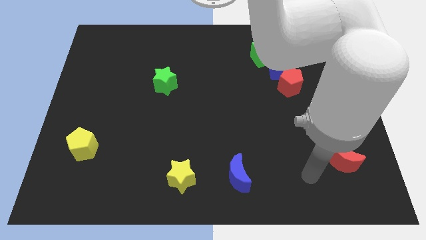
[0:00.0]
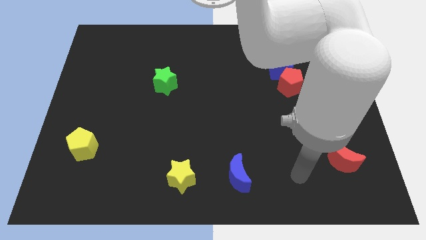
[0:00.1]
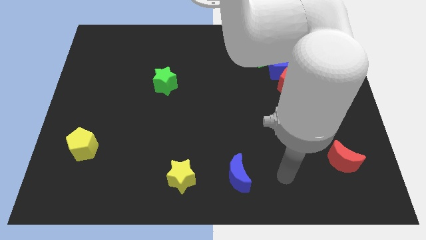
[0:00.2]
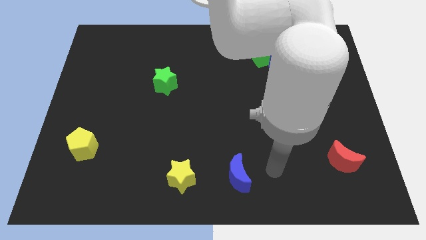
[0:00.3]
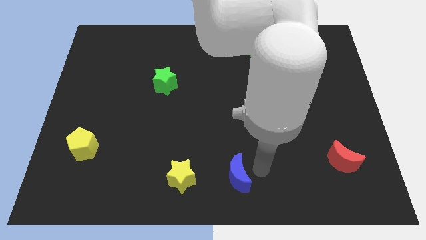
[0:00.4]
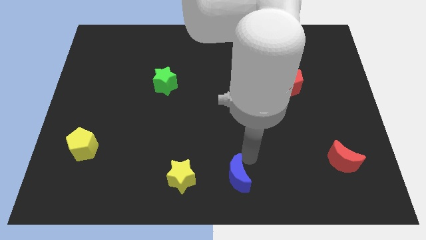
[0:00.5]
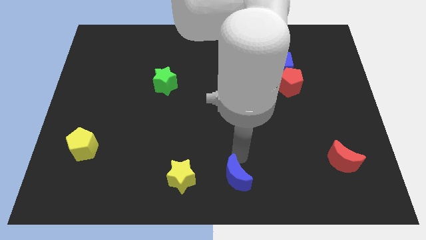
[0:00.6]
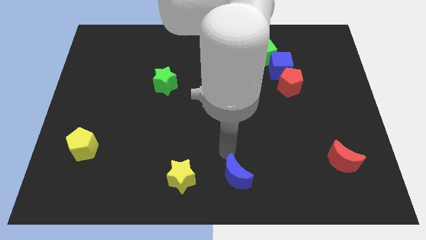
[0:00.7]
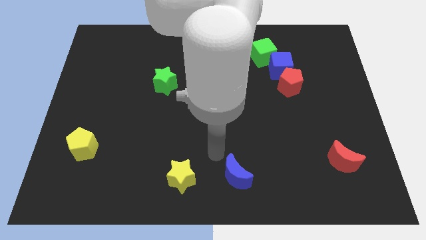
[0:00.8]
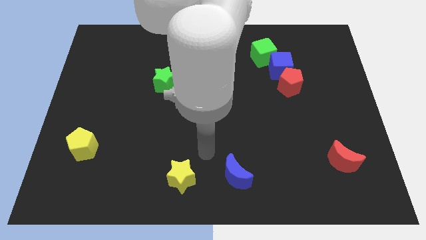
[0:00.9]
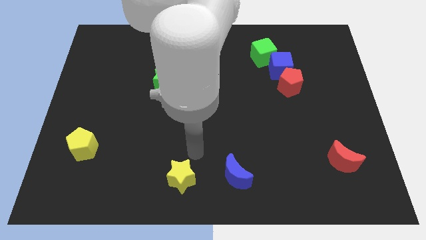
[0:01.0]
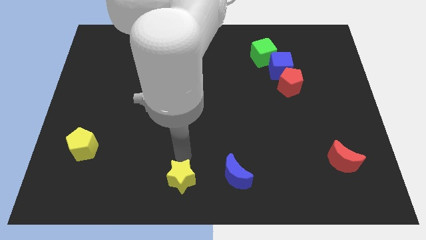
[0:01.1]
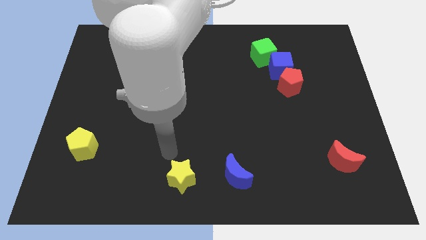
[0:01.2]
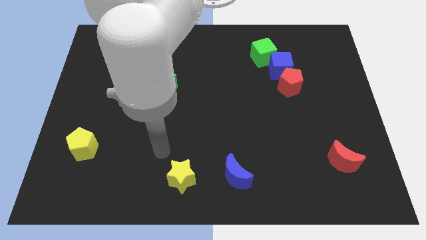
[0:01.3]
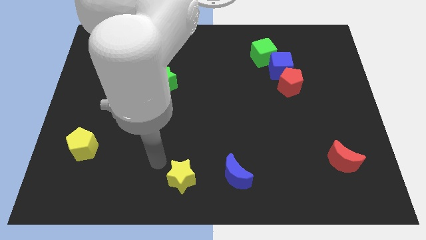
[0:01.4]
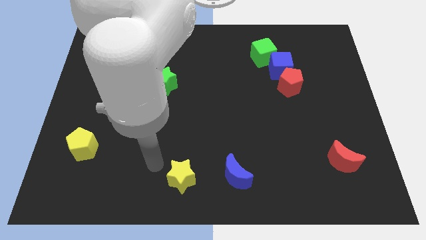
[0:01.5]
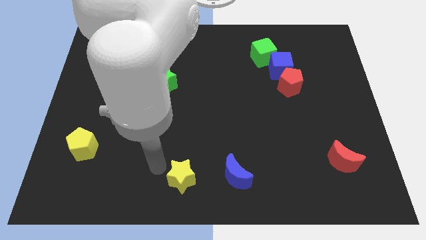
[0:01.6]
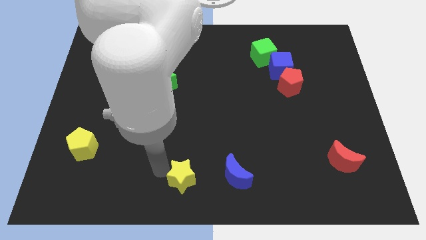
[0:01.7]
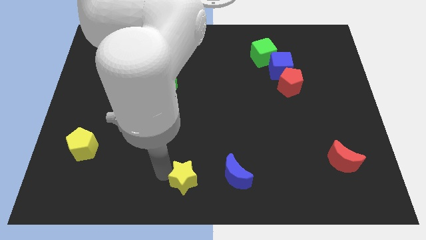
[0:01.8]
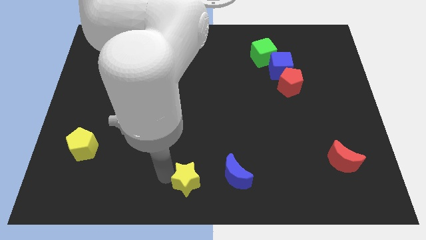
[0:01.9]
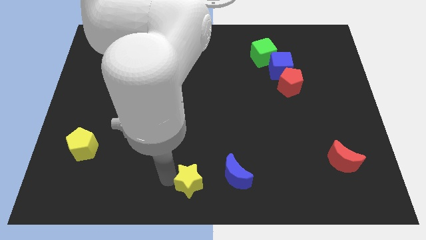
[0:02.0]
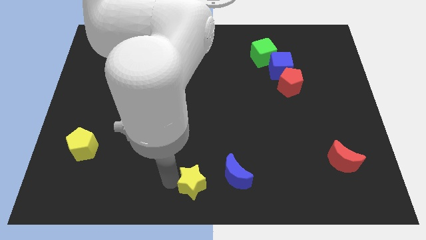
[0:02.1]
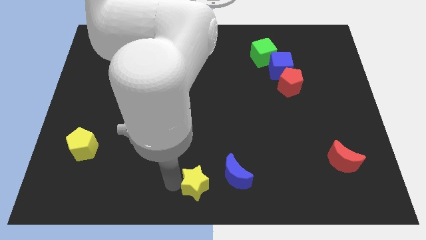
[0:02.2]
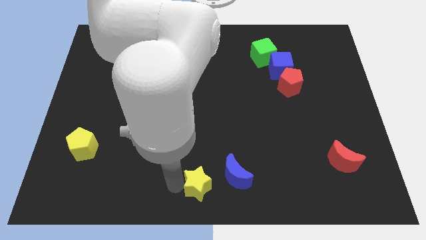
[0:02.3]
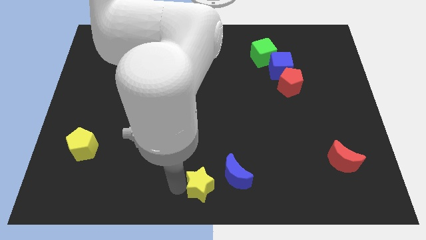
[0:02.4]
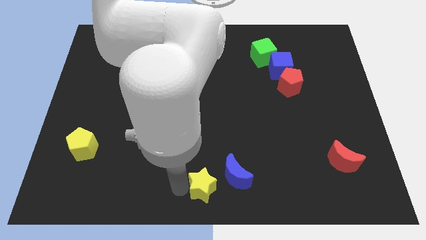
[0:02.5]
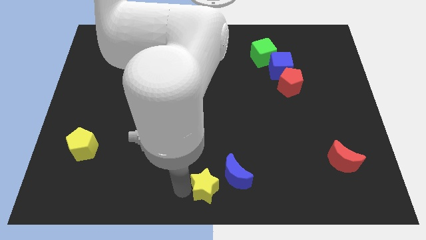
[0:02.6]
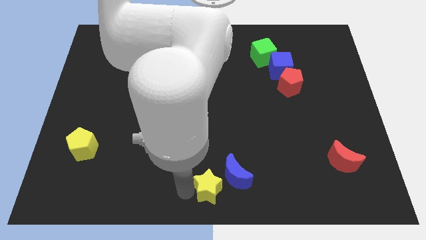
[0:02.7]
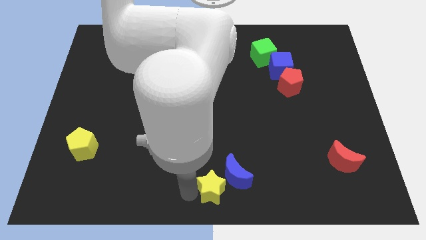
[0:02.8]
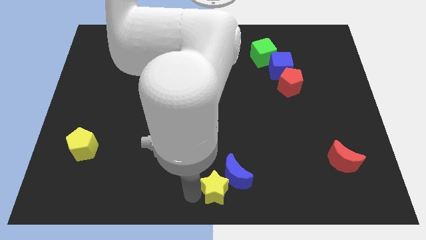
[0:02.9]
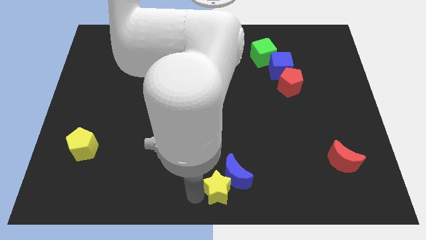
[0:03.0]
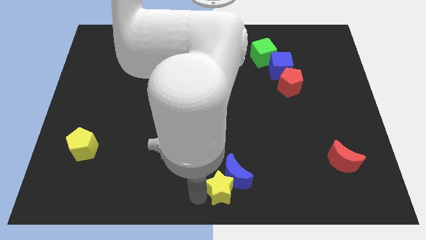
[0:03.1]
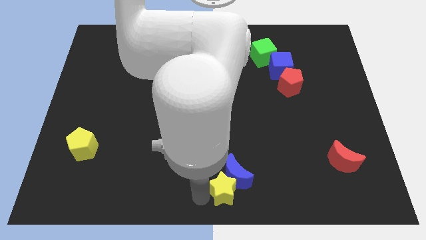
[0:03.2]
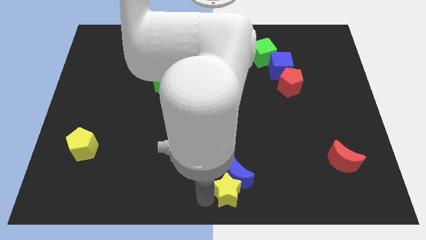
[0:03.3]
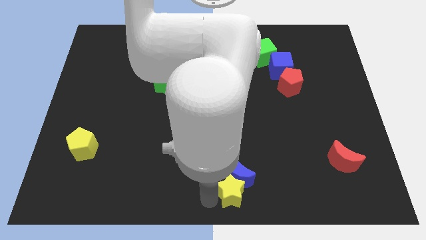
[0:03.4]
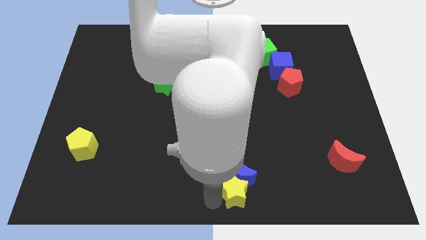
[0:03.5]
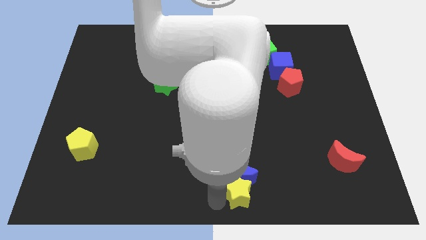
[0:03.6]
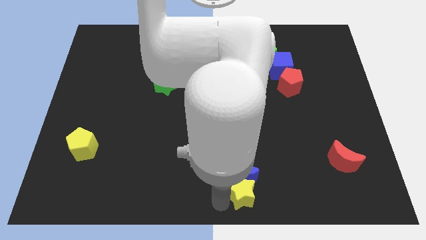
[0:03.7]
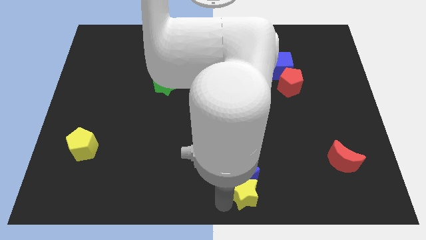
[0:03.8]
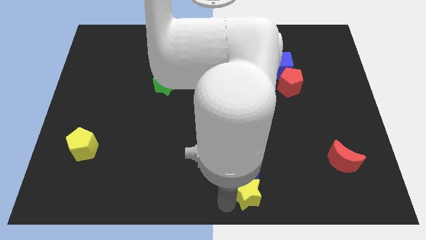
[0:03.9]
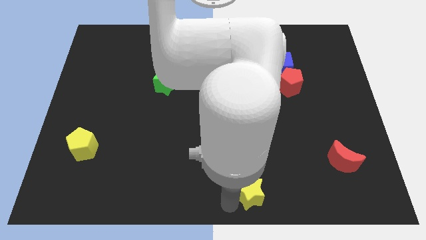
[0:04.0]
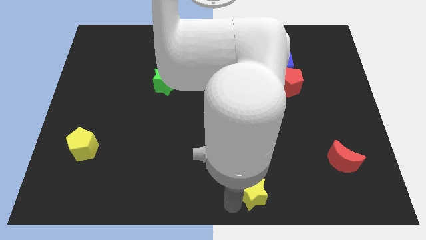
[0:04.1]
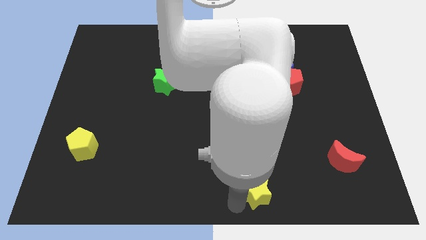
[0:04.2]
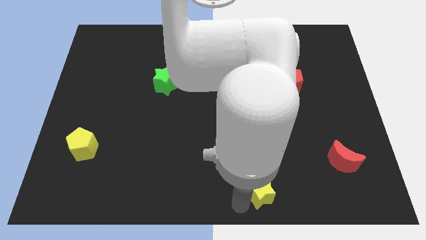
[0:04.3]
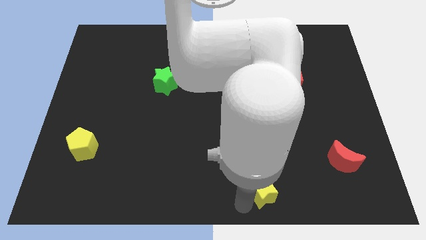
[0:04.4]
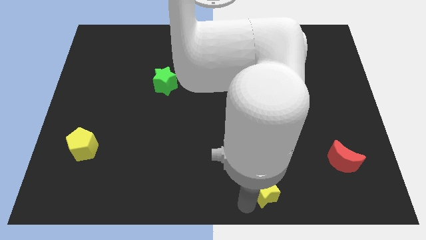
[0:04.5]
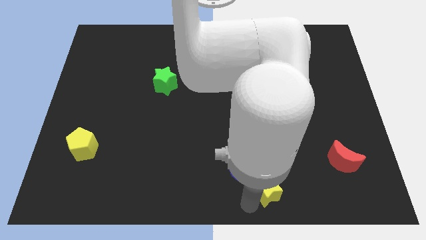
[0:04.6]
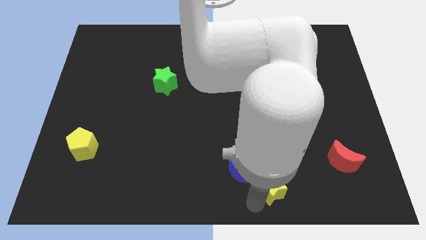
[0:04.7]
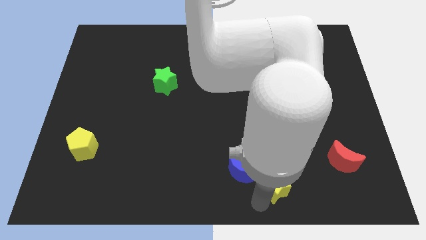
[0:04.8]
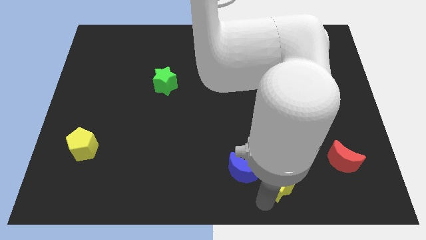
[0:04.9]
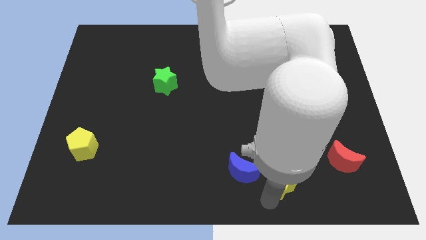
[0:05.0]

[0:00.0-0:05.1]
slide the yellow star right

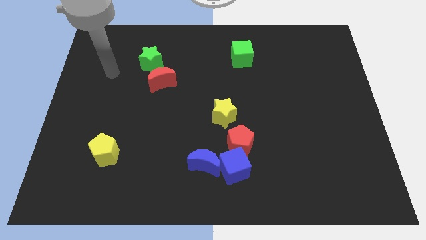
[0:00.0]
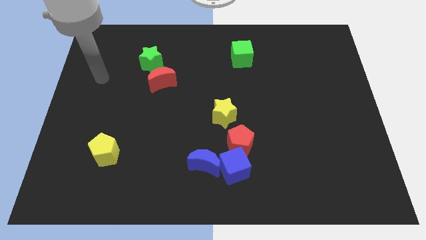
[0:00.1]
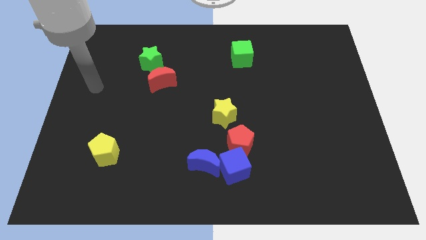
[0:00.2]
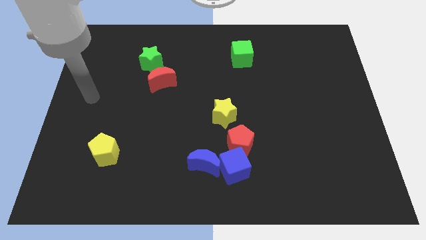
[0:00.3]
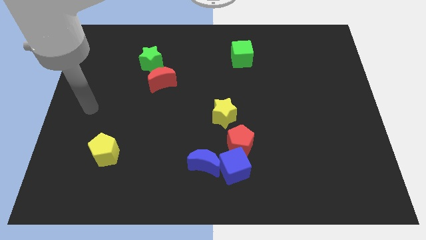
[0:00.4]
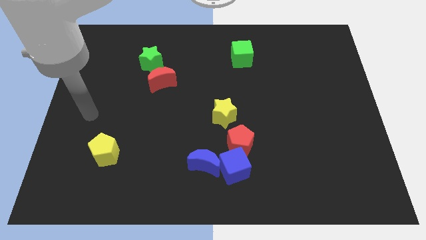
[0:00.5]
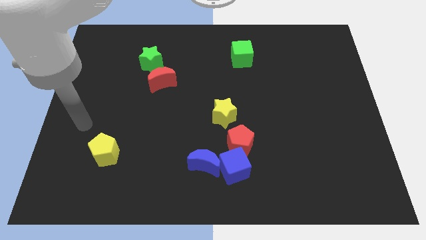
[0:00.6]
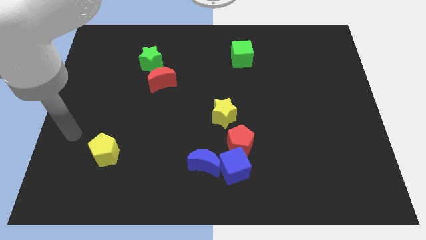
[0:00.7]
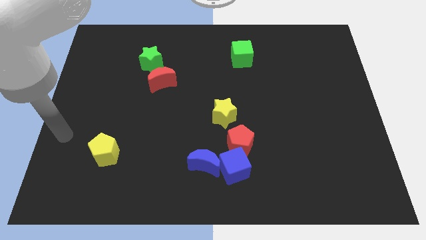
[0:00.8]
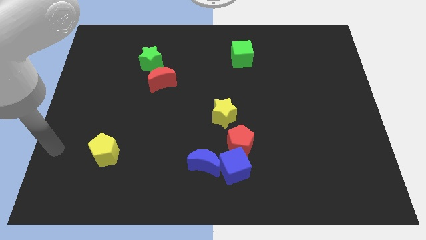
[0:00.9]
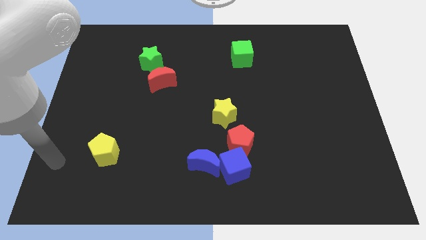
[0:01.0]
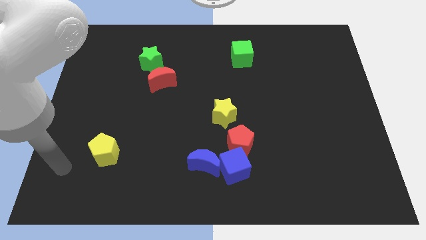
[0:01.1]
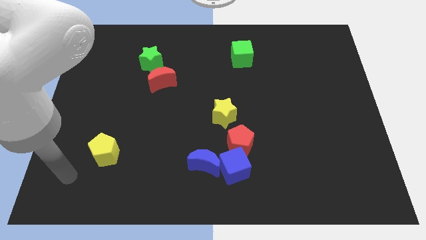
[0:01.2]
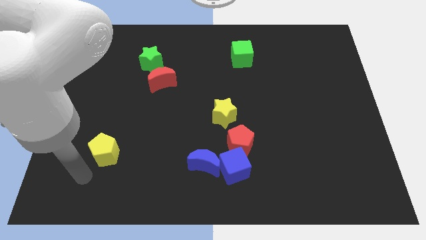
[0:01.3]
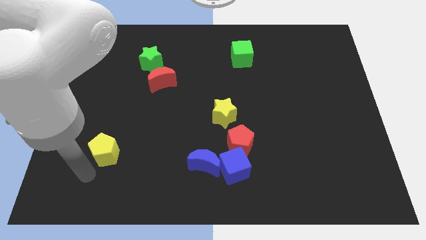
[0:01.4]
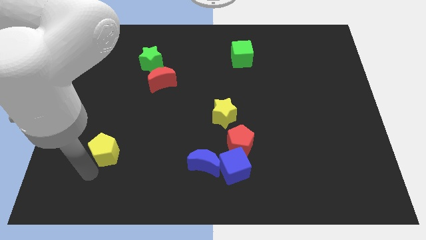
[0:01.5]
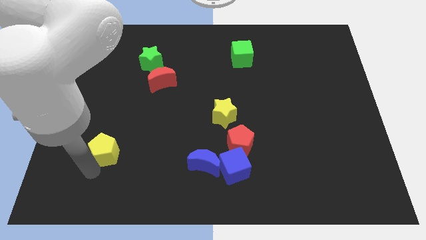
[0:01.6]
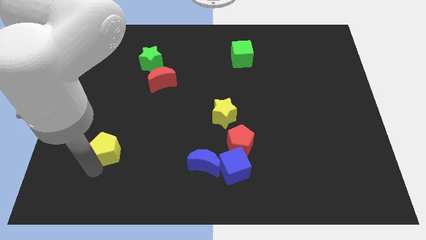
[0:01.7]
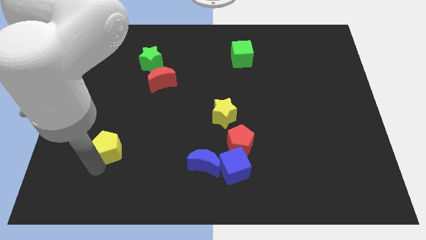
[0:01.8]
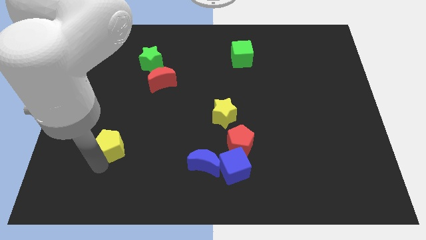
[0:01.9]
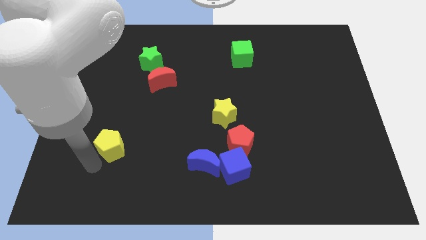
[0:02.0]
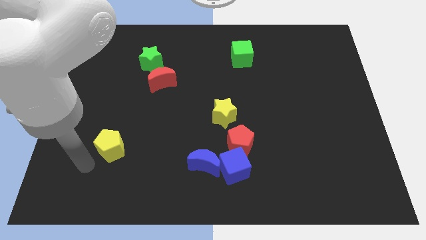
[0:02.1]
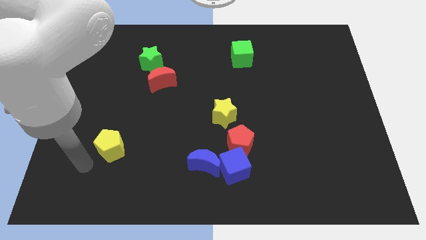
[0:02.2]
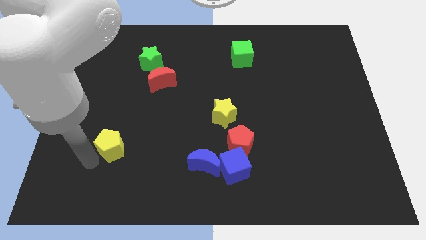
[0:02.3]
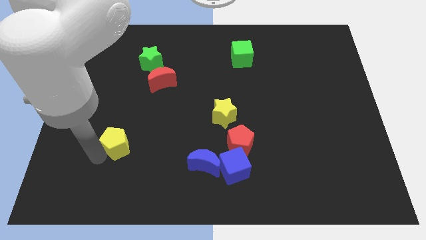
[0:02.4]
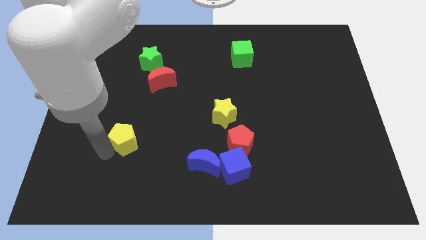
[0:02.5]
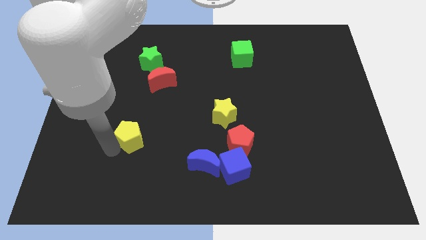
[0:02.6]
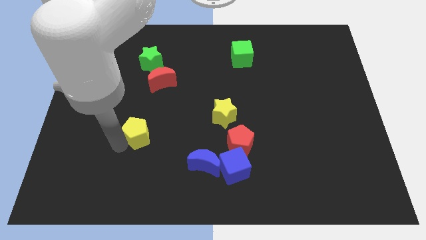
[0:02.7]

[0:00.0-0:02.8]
push the yellow pentagon upwards and right diagonally slightly

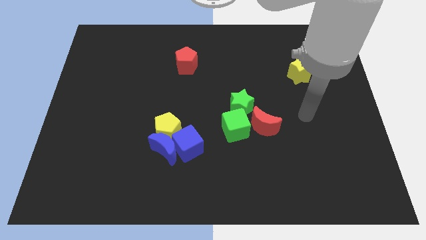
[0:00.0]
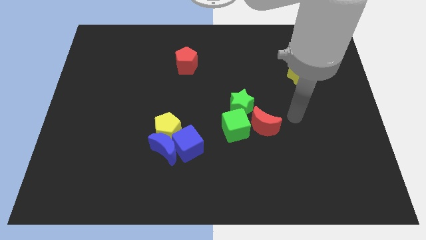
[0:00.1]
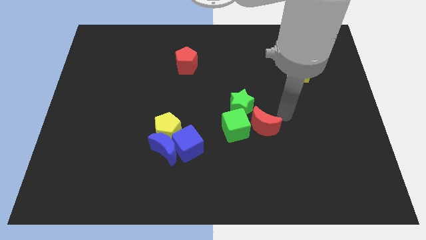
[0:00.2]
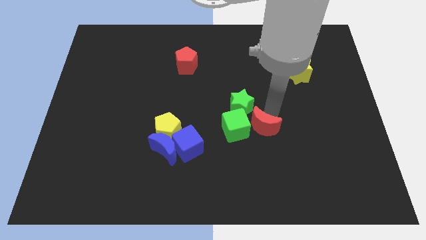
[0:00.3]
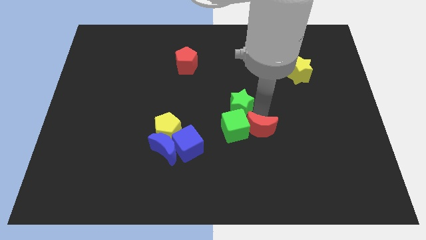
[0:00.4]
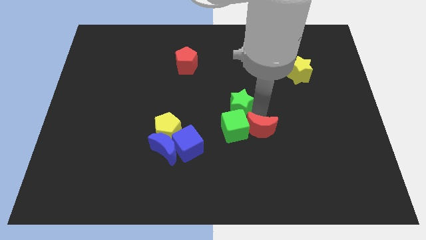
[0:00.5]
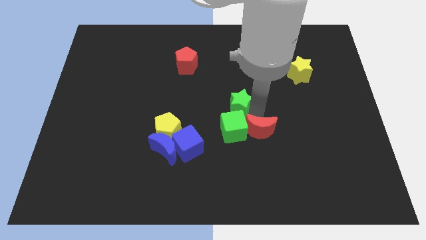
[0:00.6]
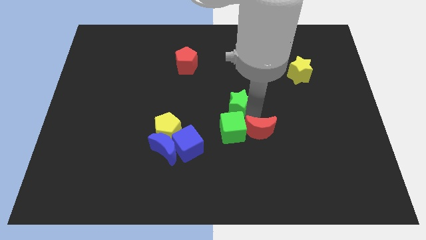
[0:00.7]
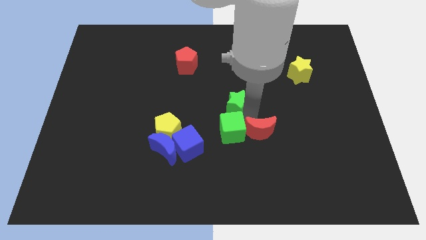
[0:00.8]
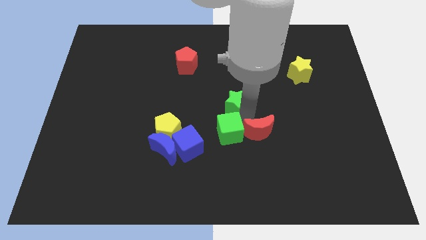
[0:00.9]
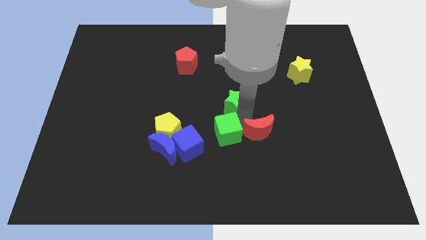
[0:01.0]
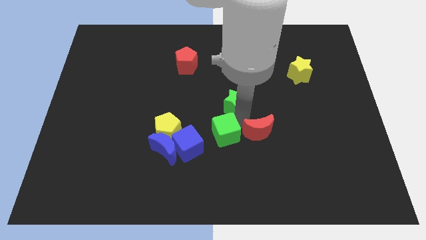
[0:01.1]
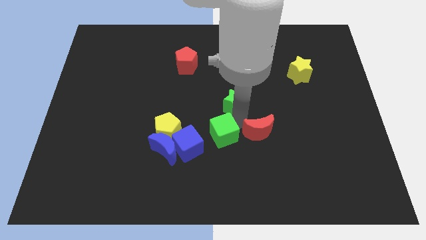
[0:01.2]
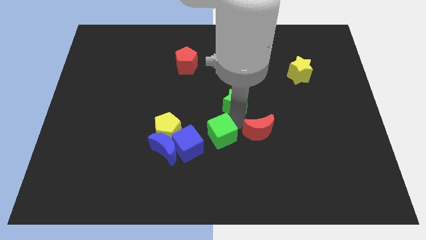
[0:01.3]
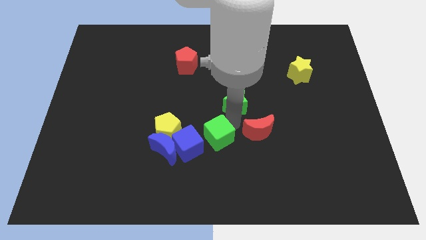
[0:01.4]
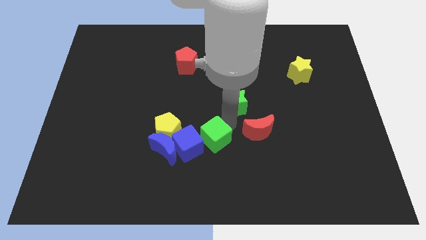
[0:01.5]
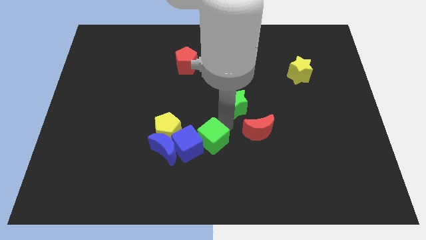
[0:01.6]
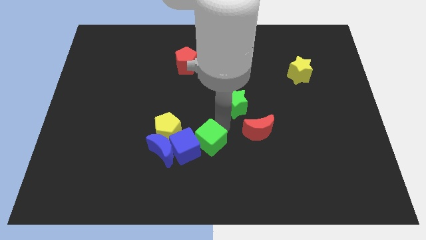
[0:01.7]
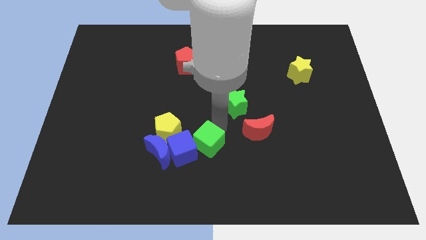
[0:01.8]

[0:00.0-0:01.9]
move the green cube a bit diagonally down and left
